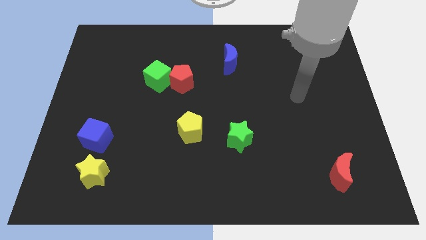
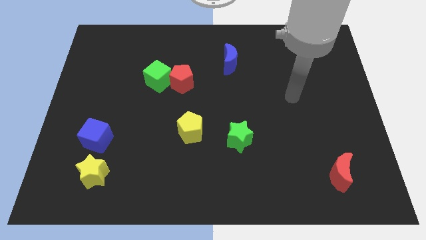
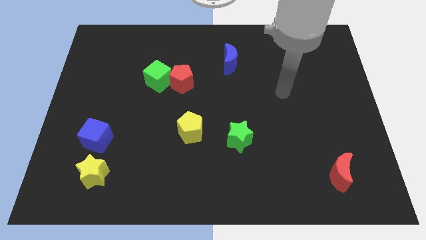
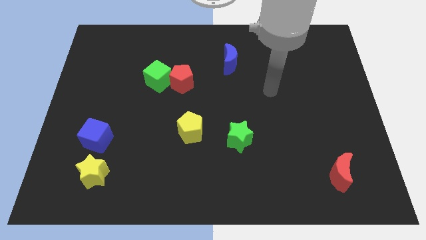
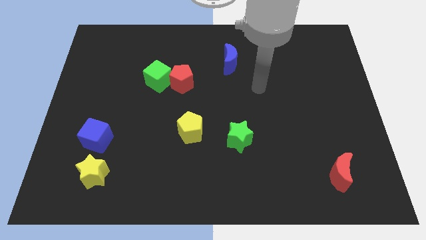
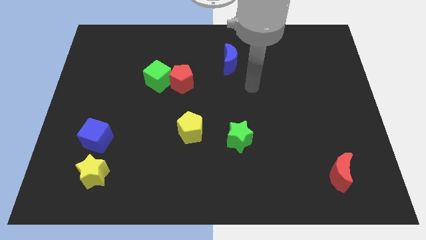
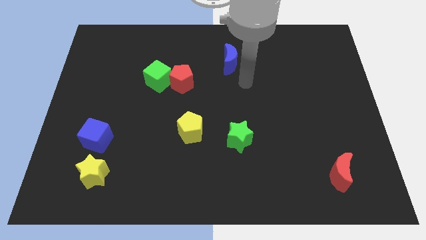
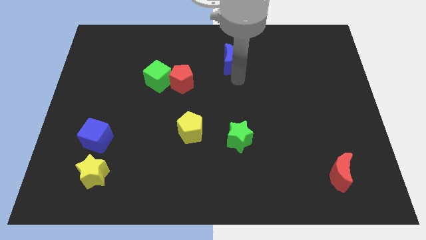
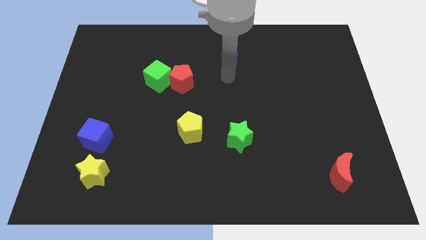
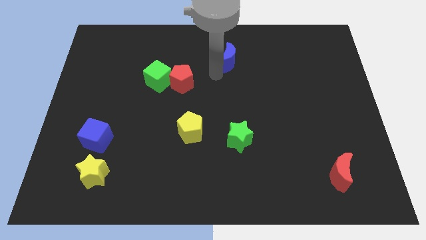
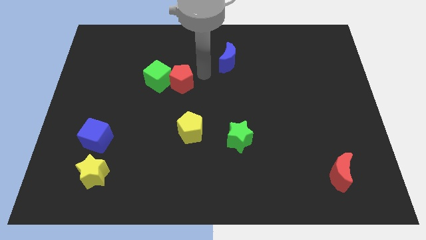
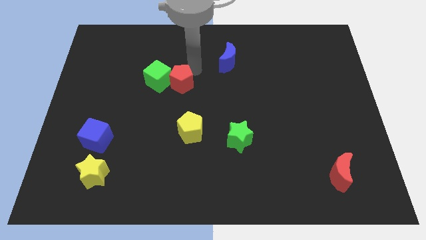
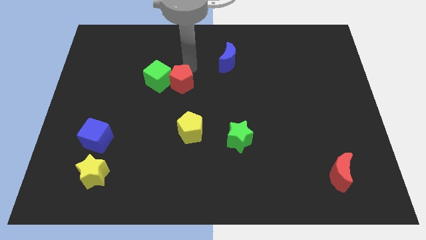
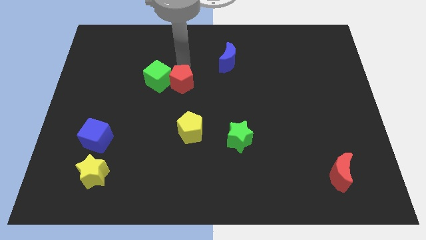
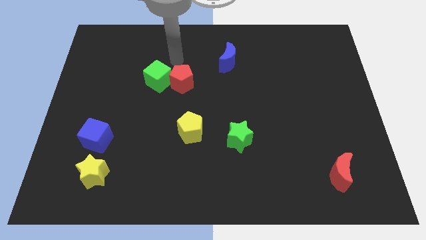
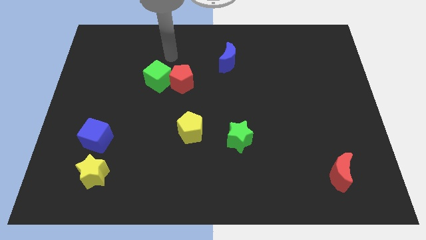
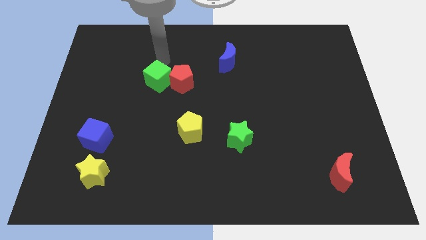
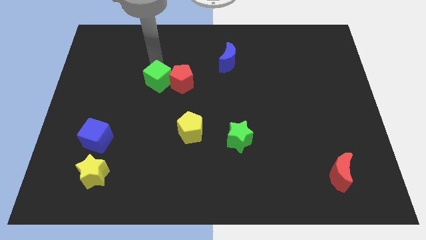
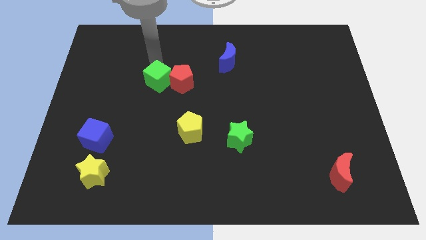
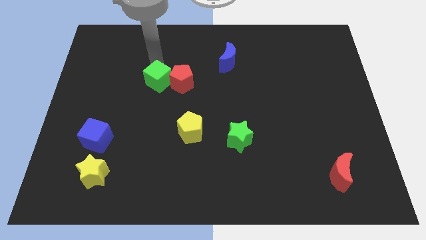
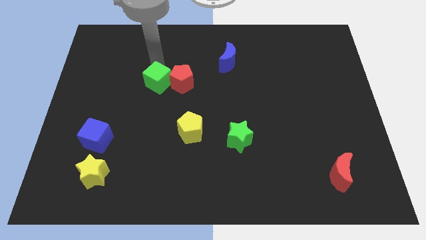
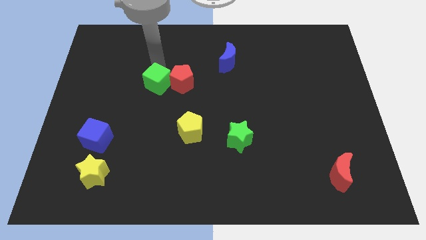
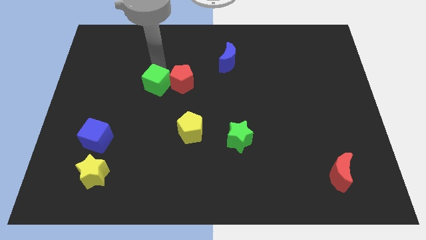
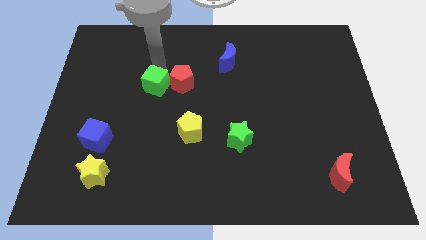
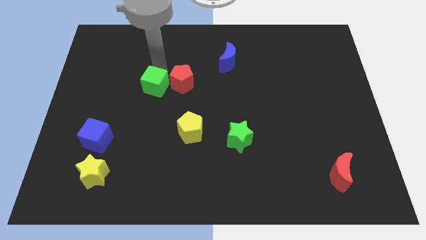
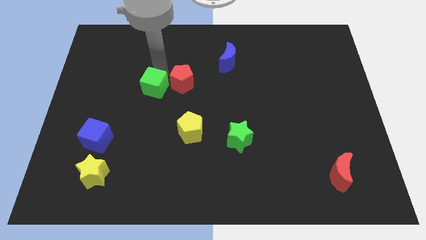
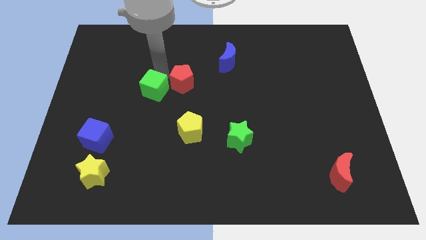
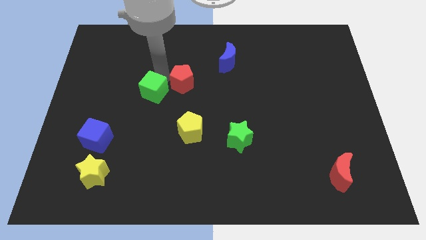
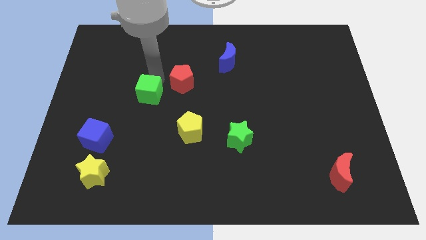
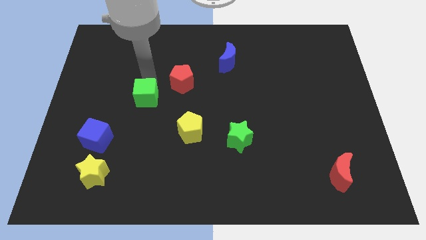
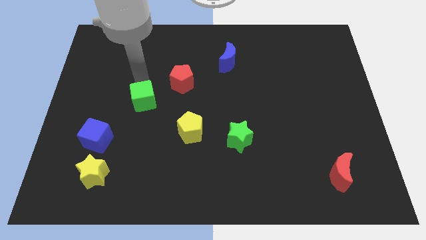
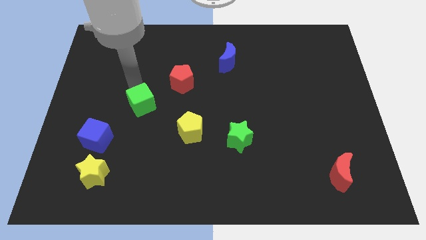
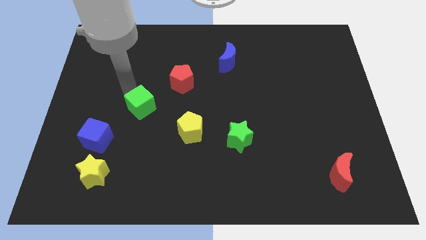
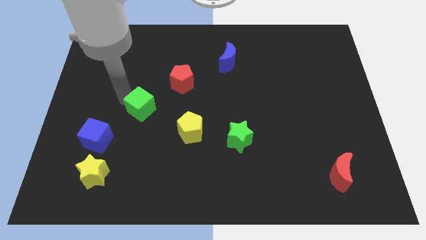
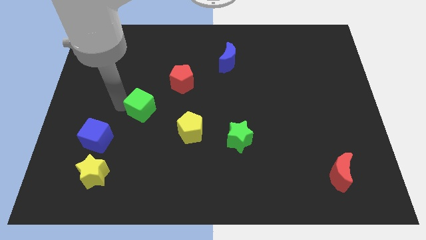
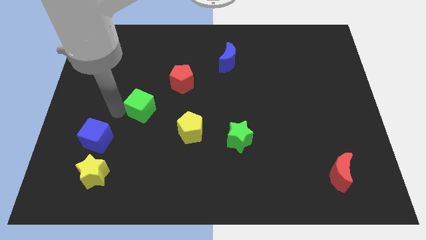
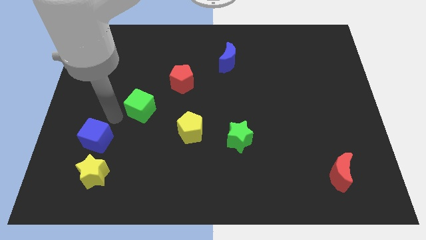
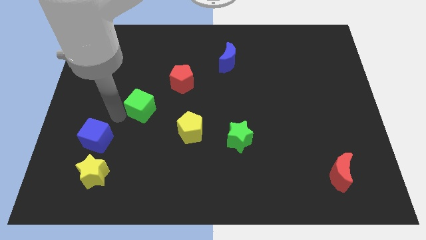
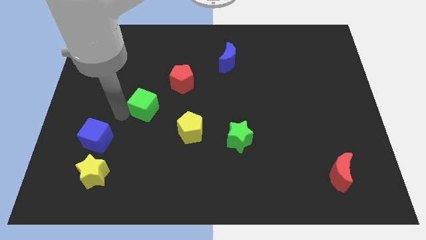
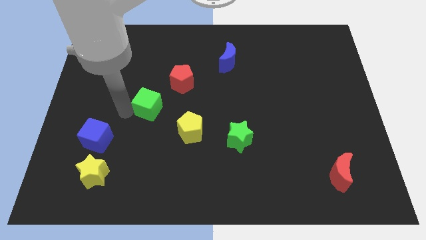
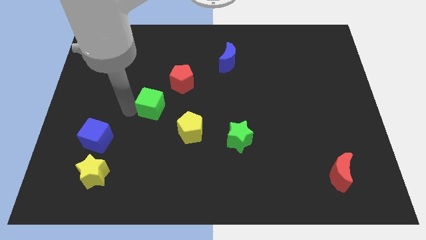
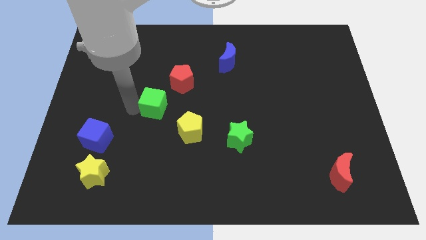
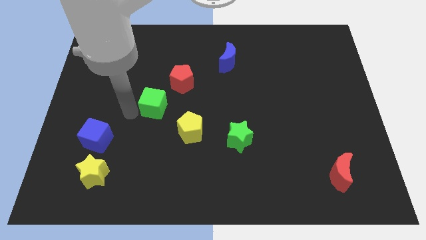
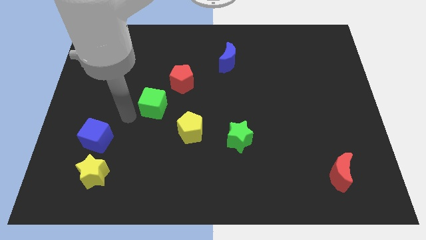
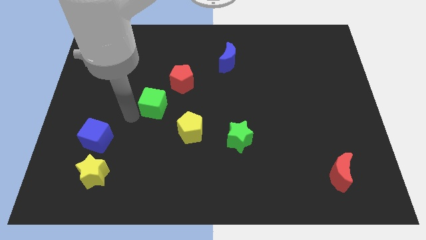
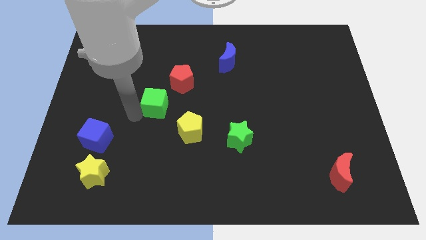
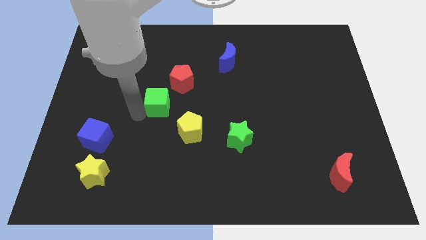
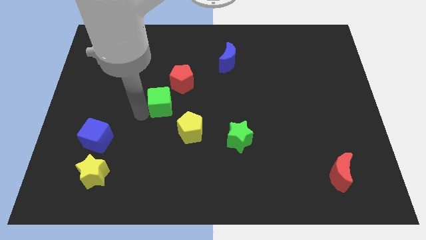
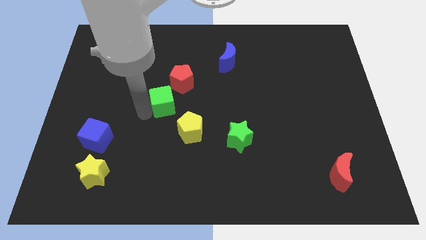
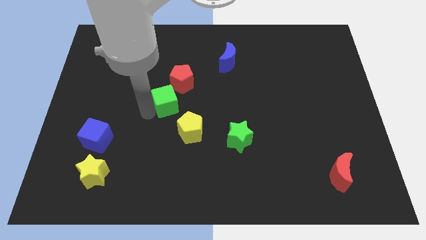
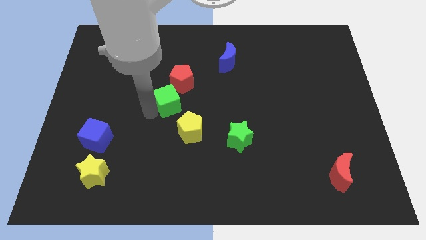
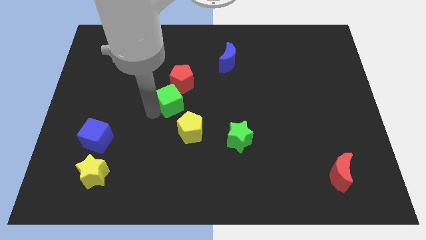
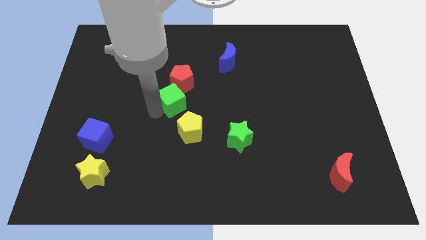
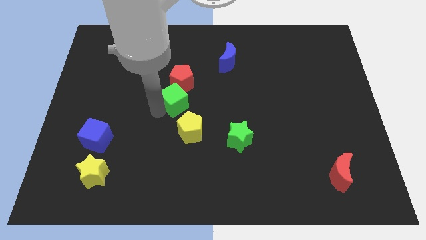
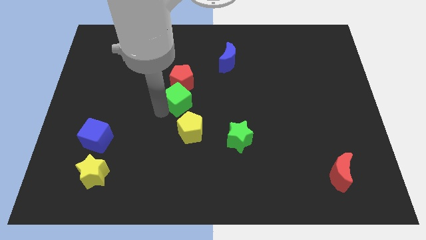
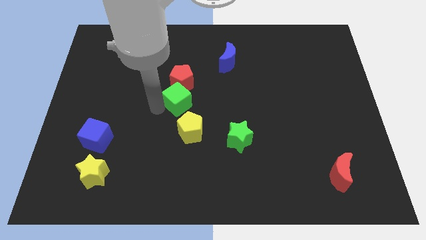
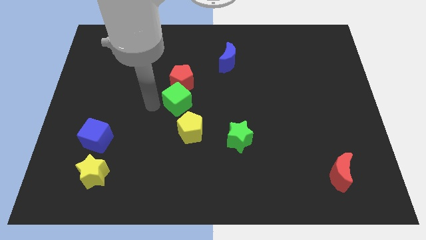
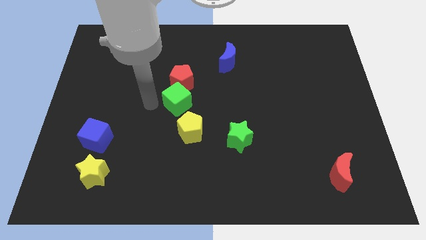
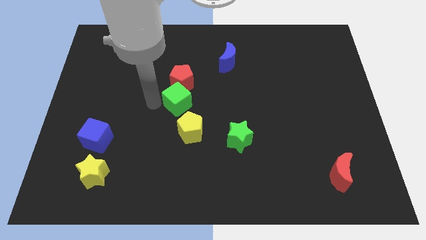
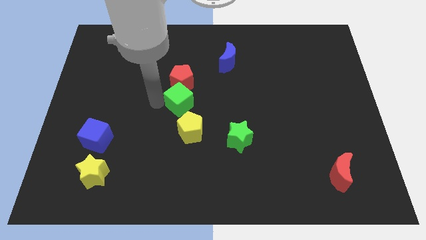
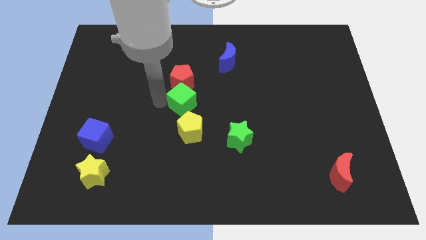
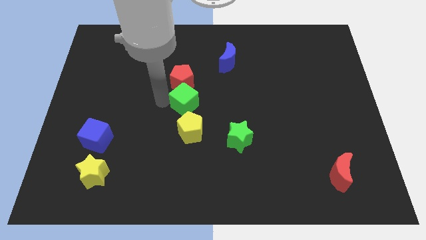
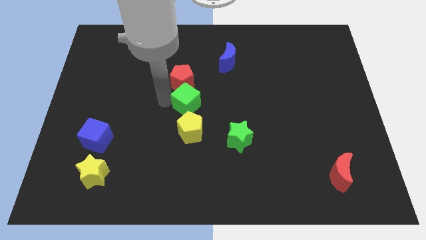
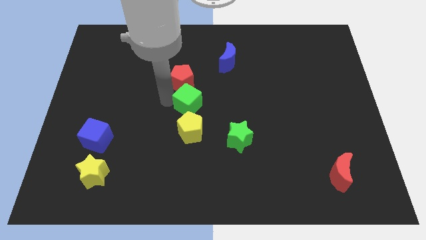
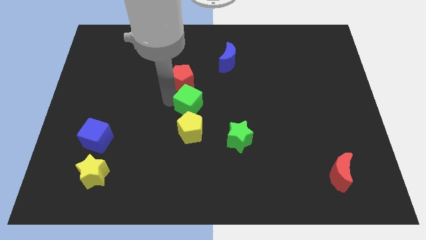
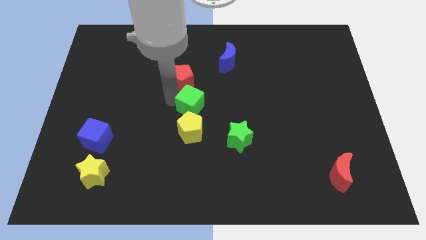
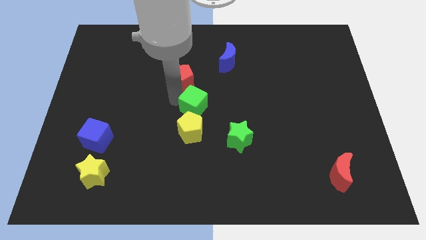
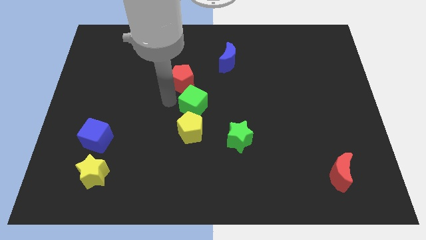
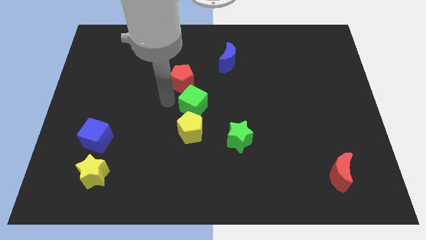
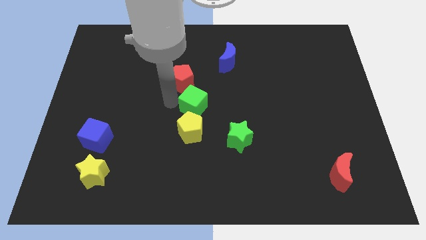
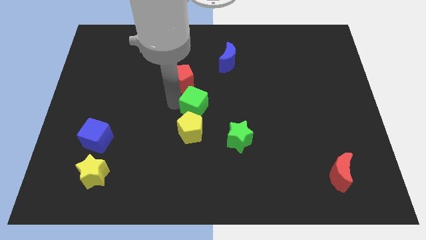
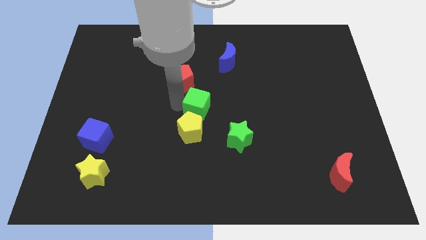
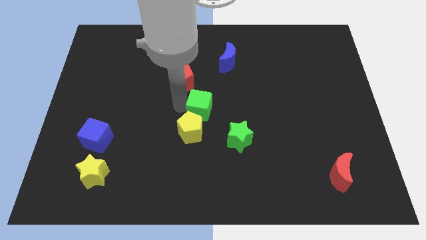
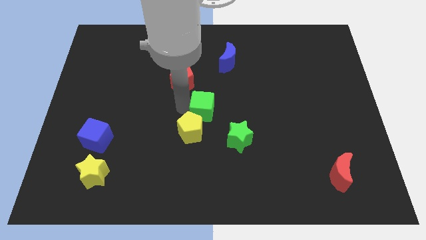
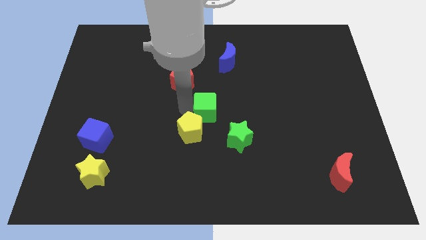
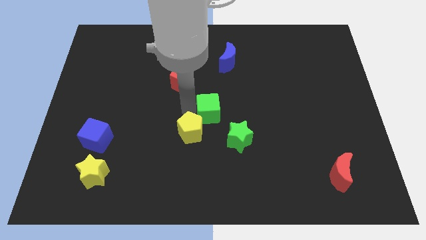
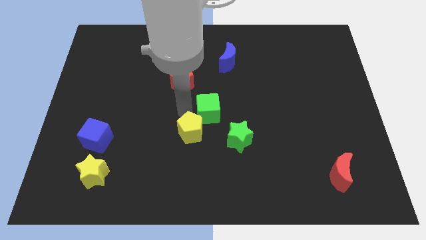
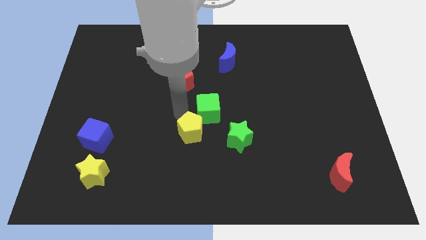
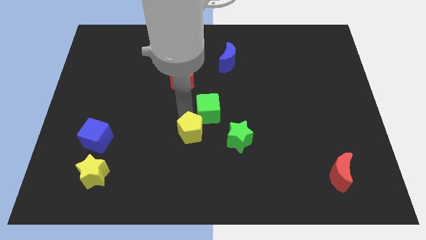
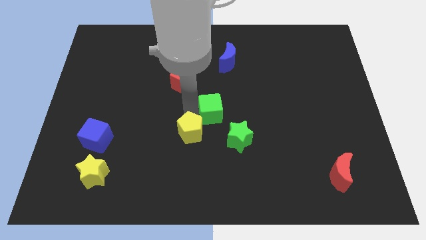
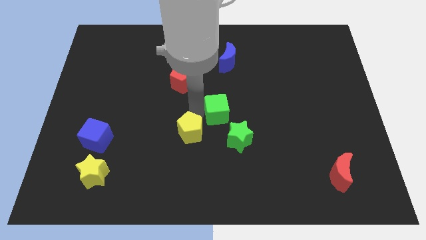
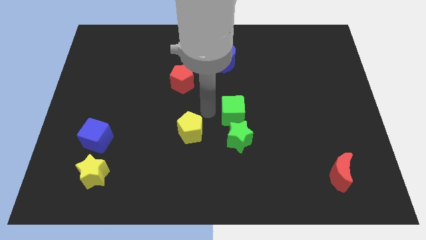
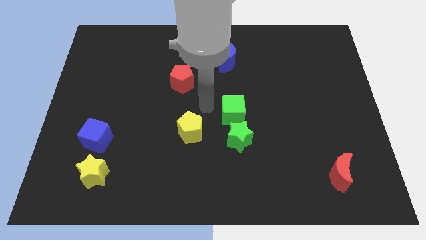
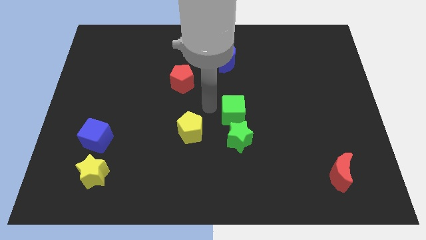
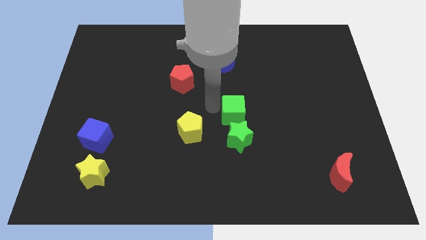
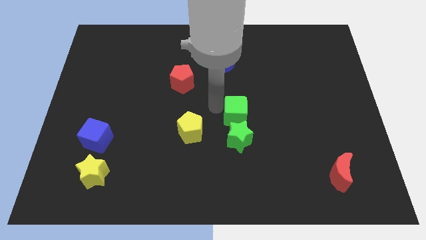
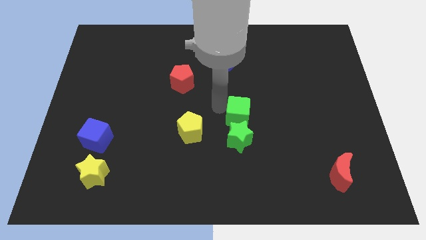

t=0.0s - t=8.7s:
slide the green cube diagonally up and to the right of the green star
